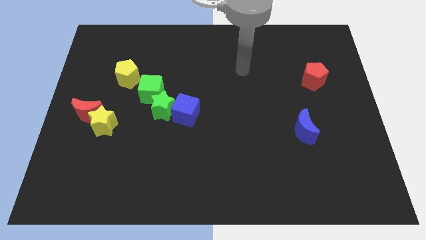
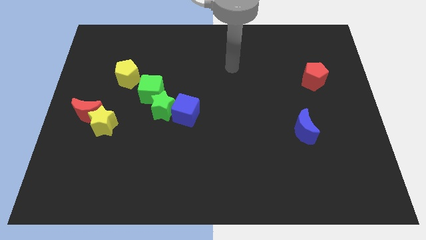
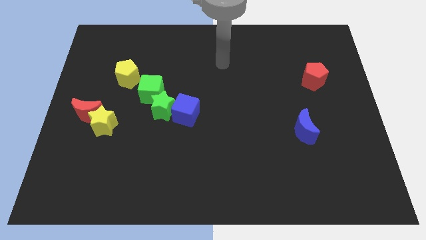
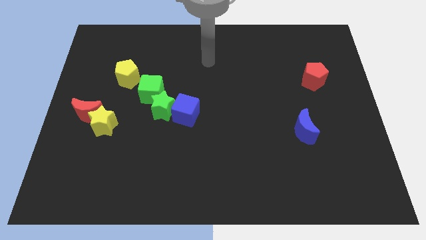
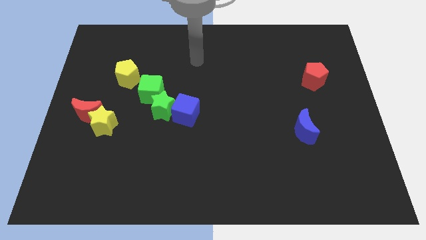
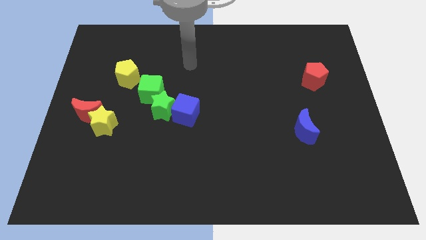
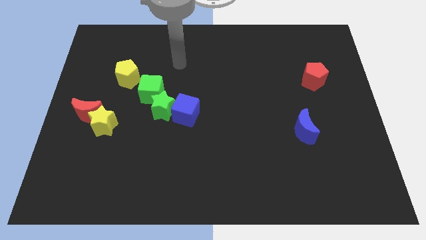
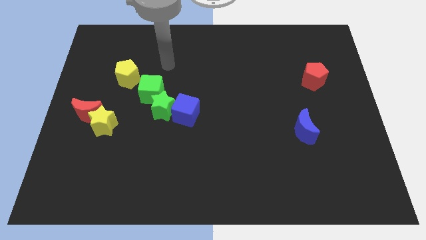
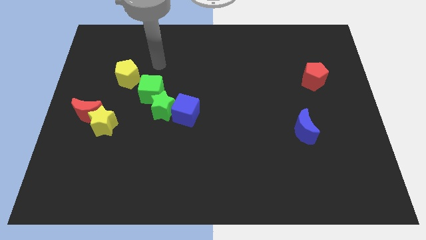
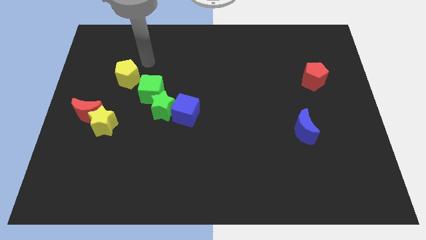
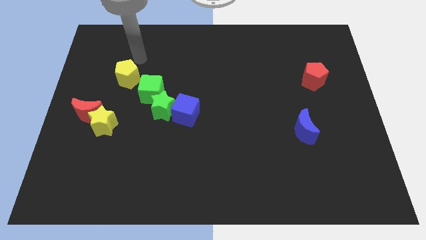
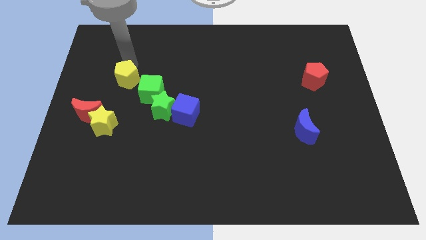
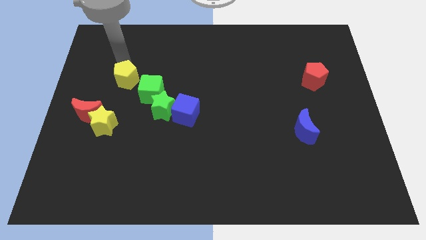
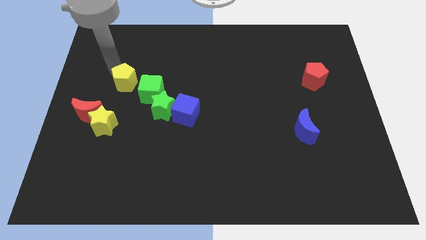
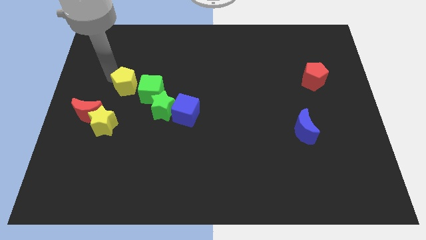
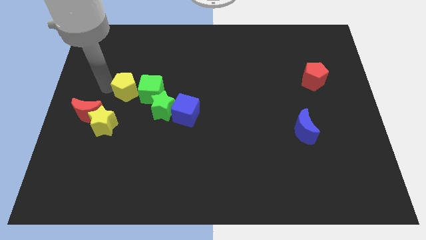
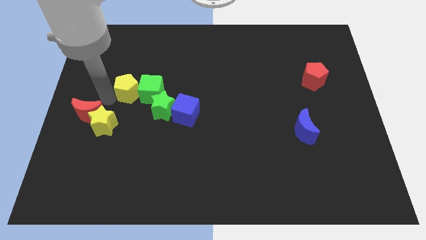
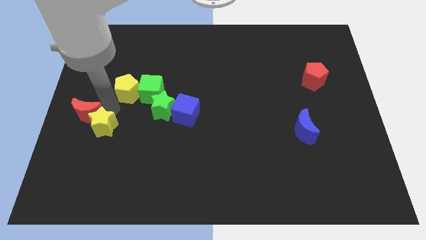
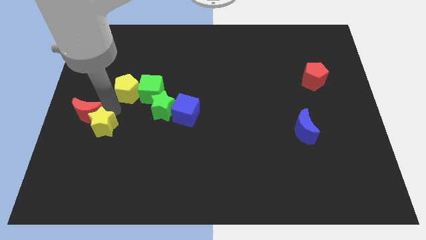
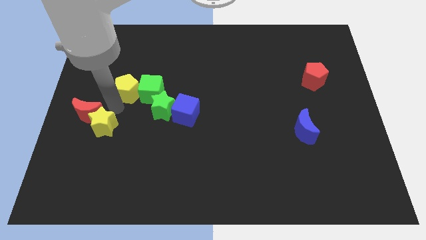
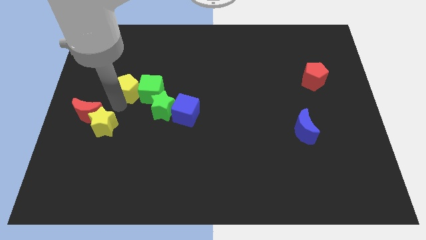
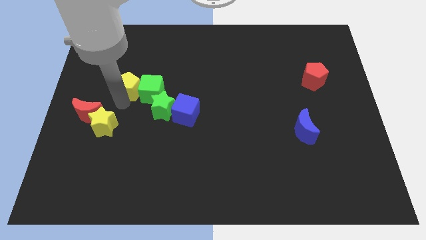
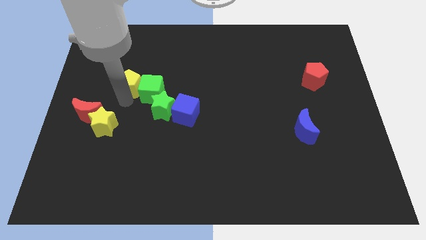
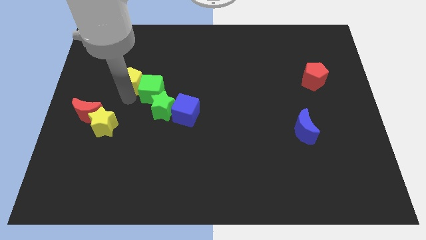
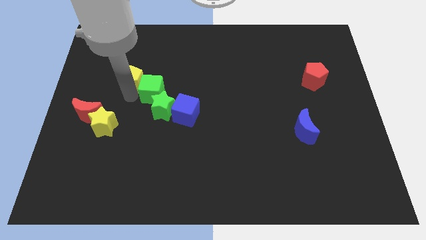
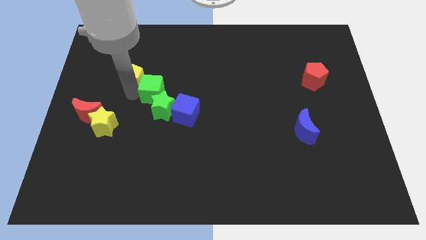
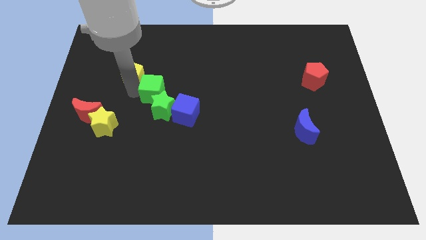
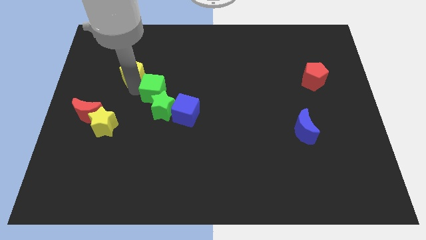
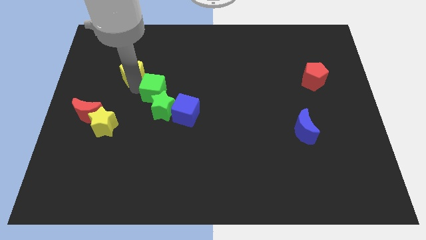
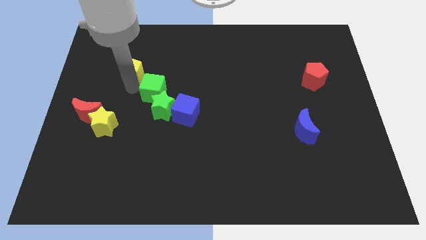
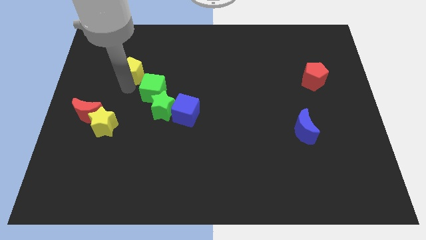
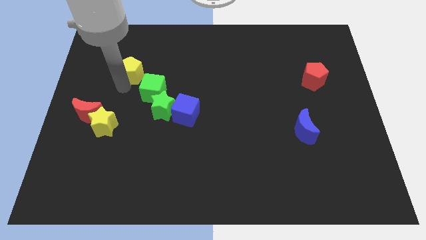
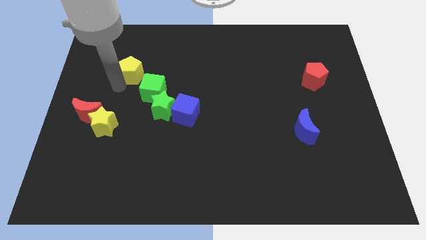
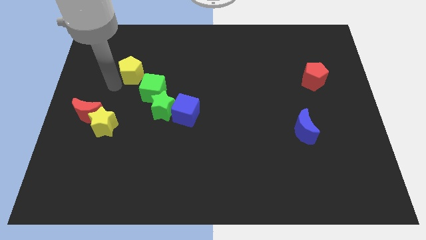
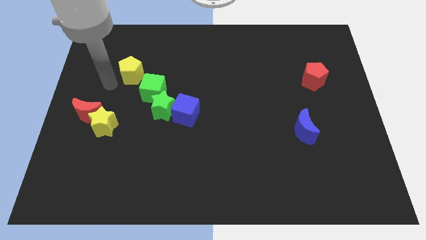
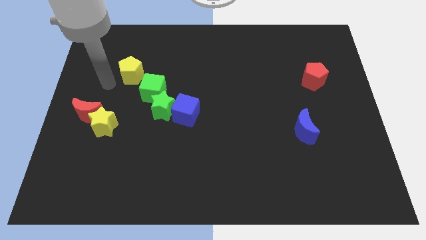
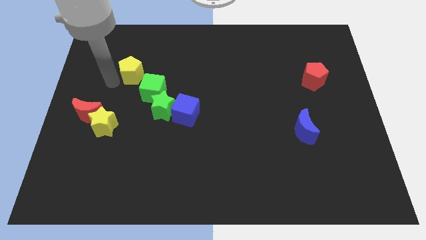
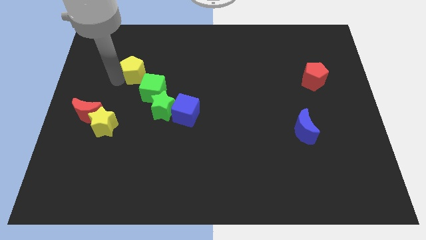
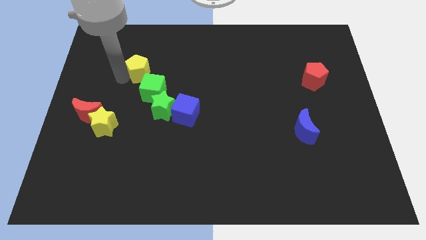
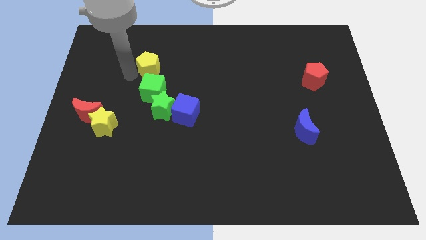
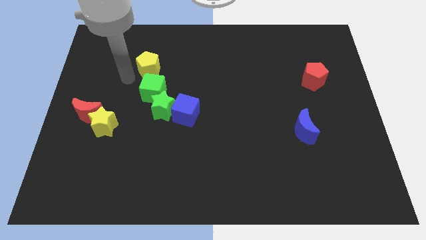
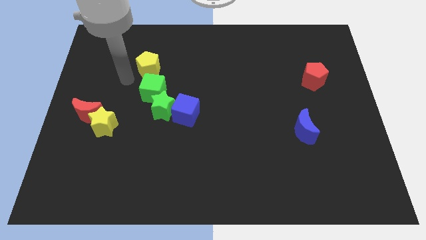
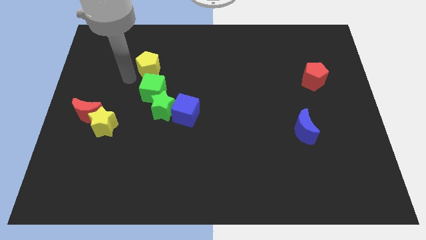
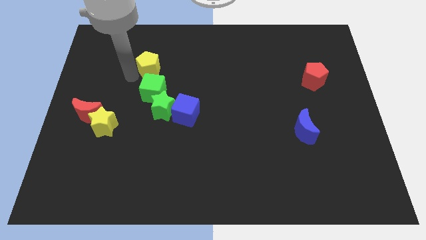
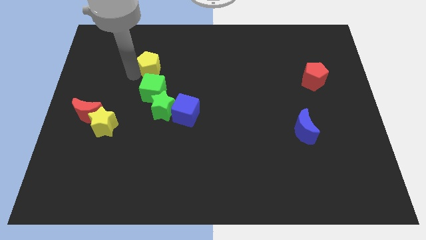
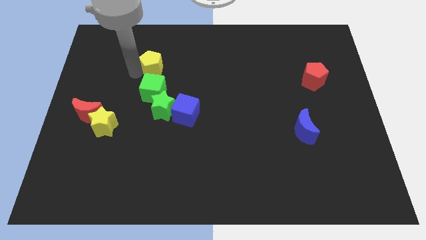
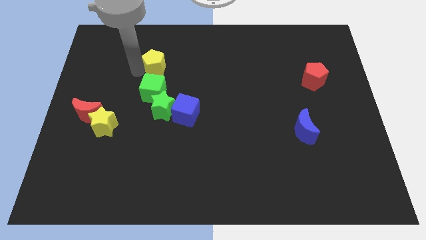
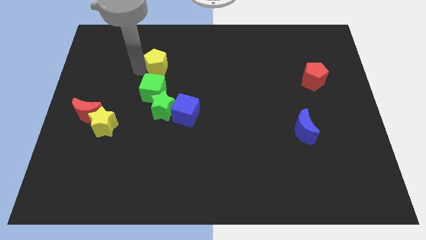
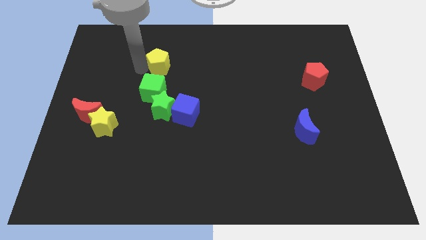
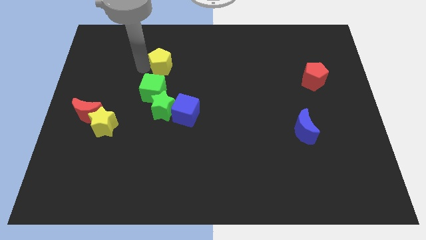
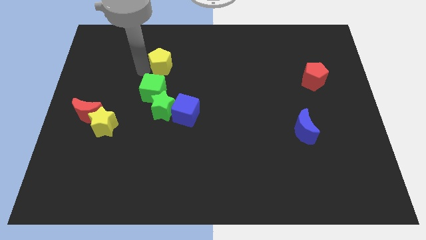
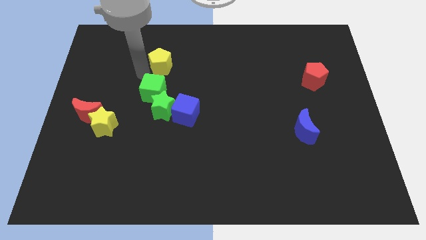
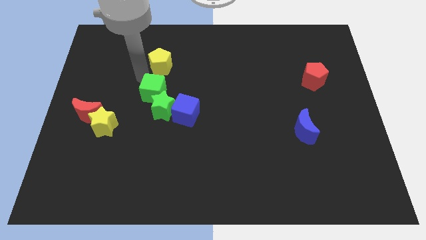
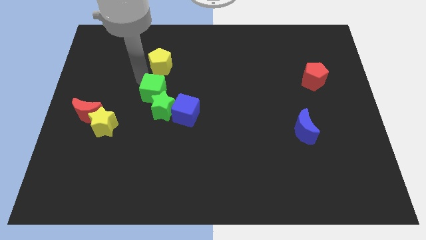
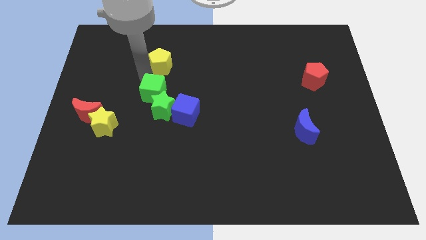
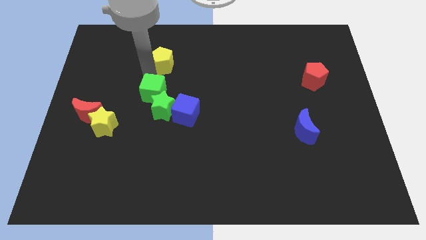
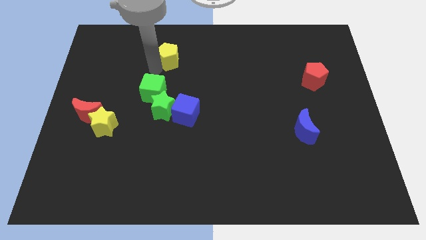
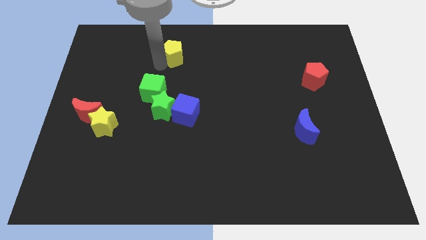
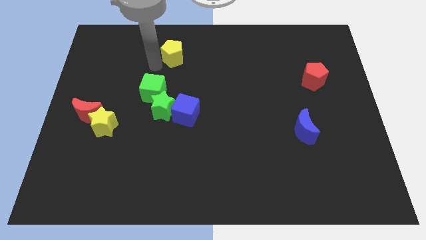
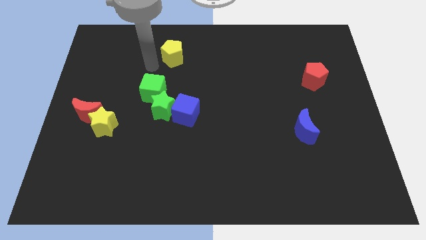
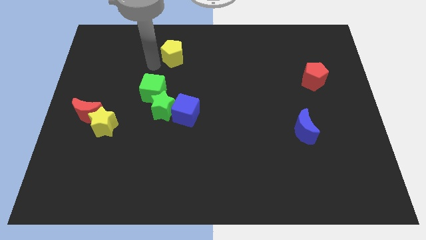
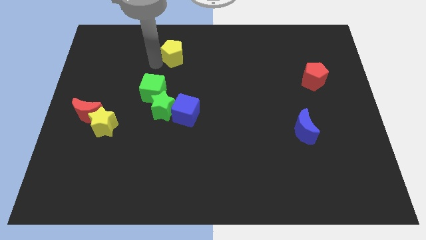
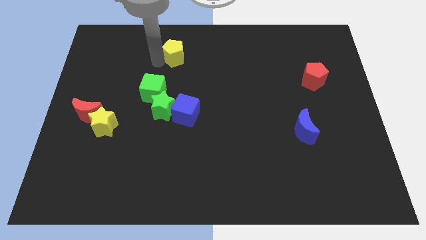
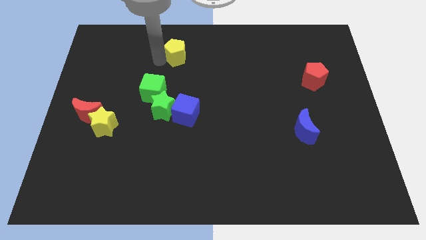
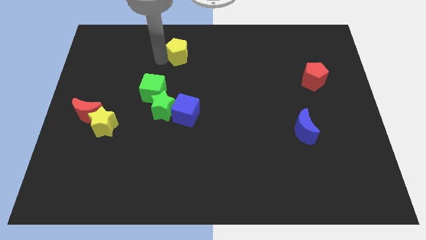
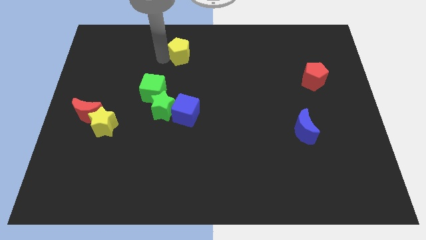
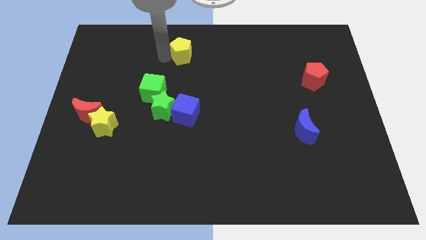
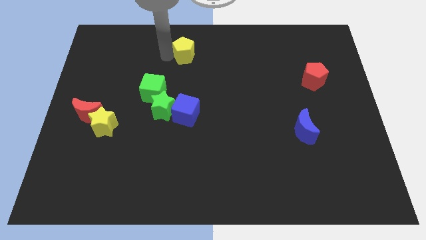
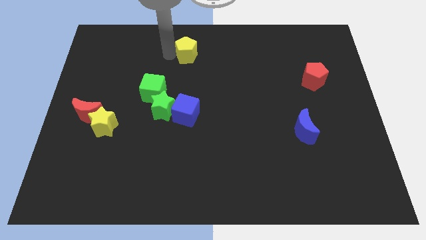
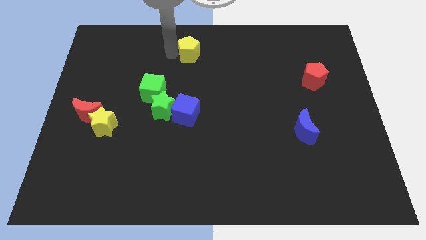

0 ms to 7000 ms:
move the yellow pentagon to the towards your base

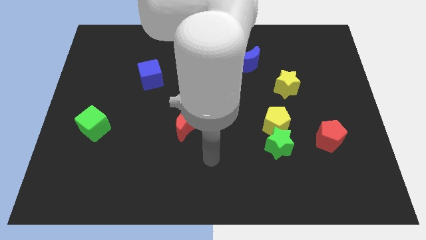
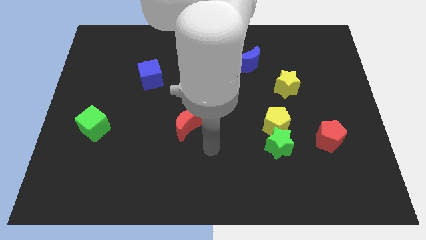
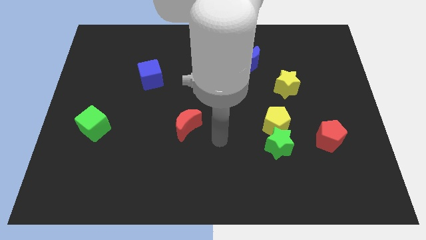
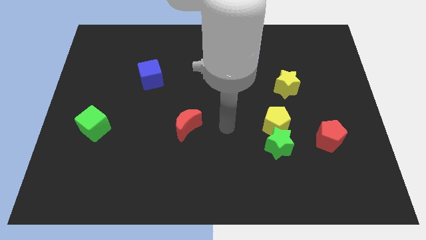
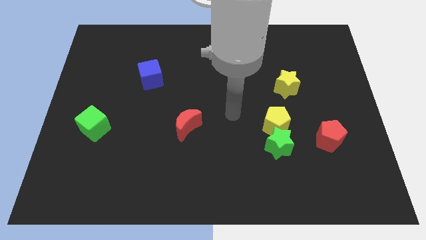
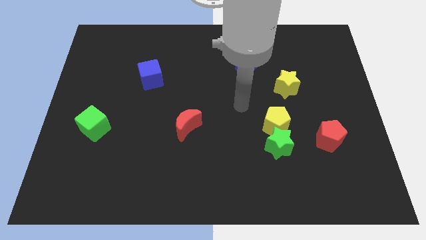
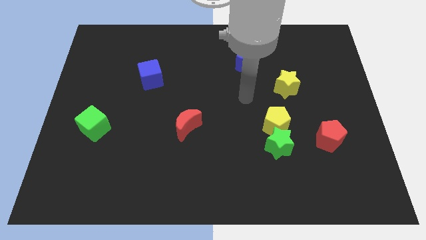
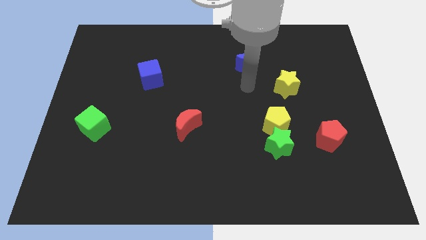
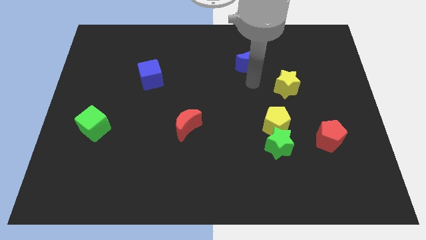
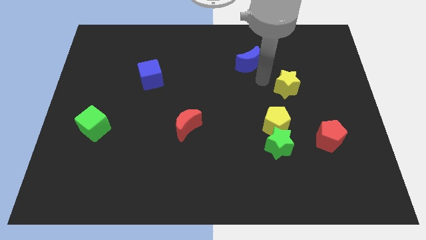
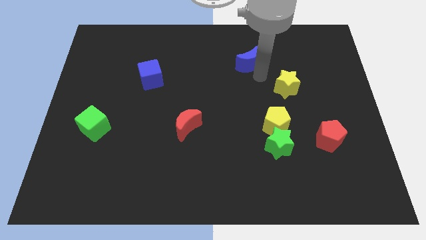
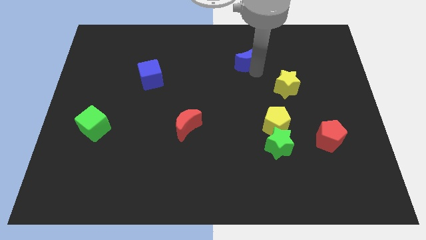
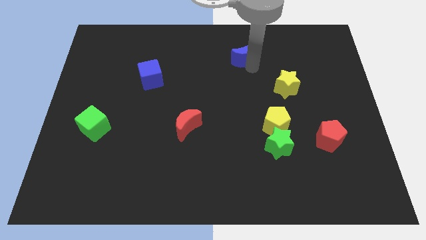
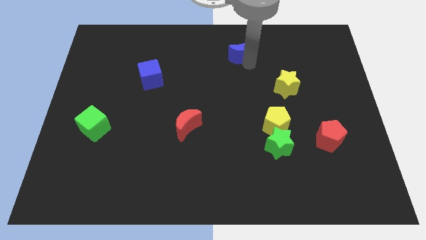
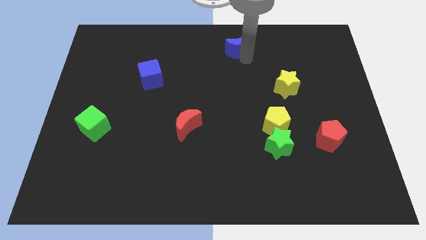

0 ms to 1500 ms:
push the blue moon to the top
